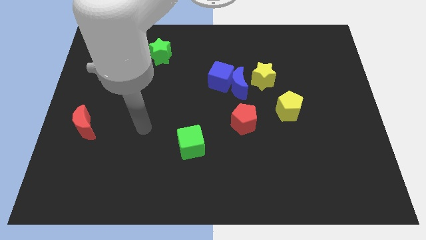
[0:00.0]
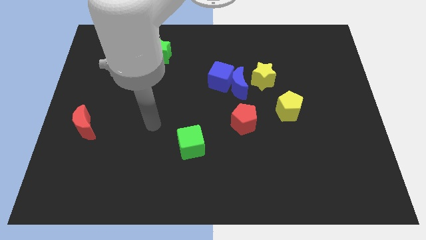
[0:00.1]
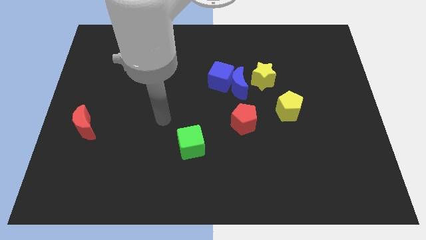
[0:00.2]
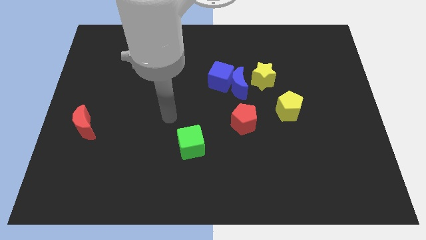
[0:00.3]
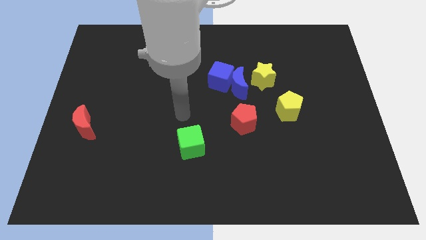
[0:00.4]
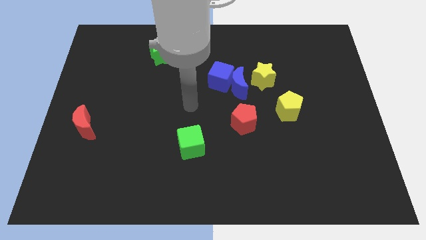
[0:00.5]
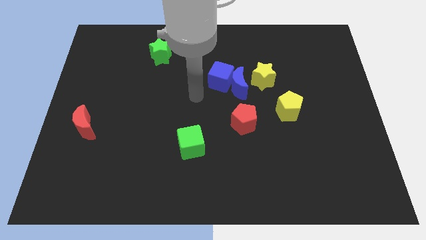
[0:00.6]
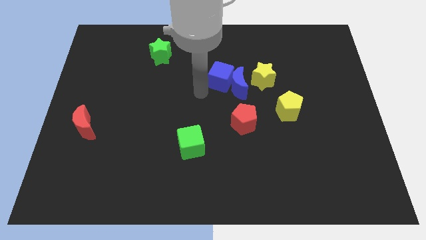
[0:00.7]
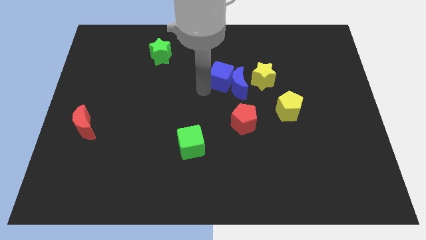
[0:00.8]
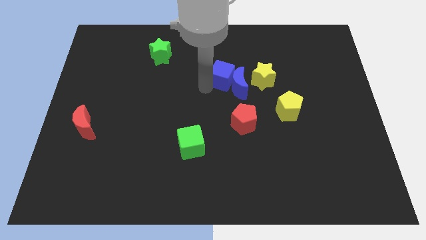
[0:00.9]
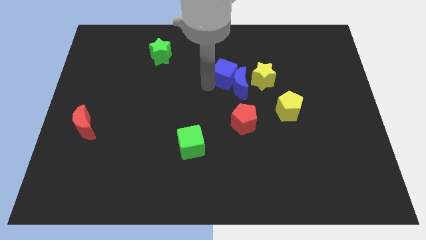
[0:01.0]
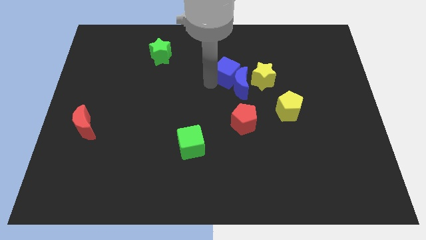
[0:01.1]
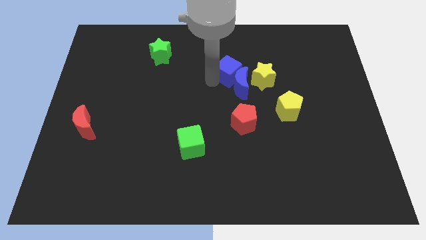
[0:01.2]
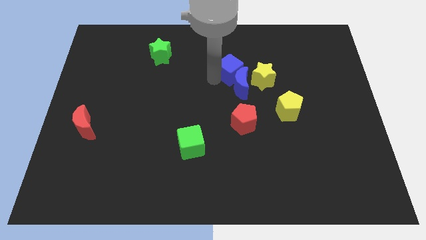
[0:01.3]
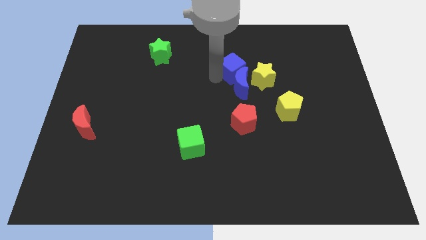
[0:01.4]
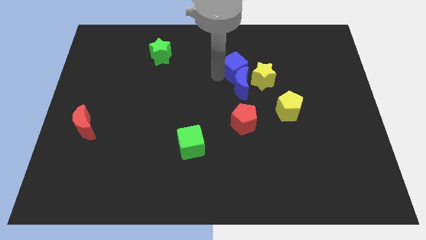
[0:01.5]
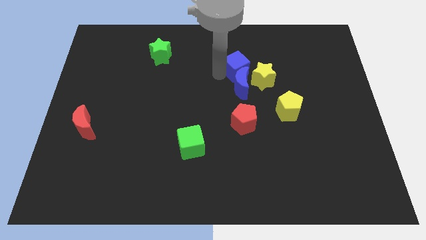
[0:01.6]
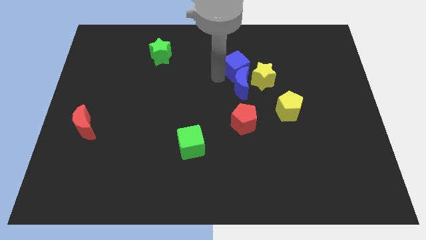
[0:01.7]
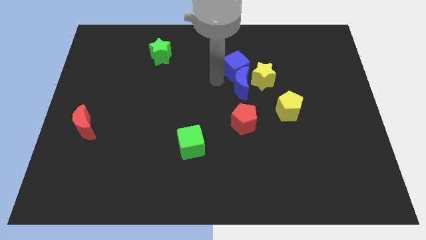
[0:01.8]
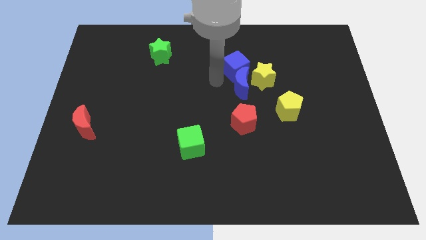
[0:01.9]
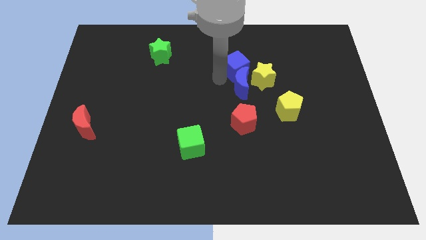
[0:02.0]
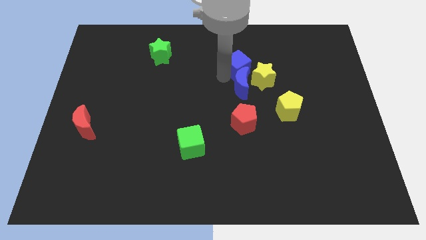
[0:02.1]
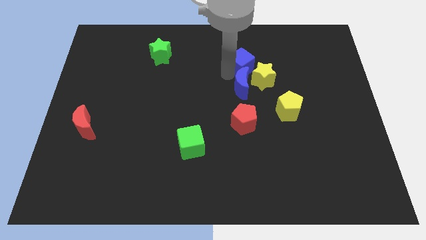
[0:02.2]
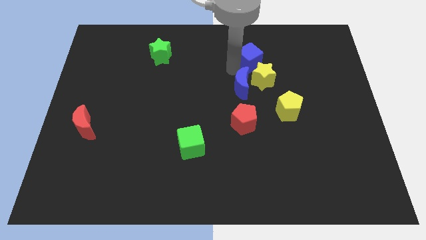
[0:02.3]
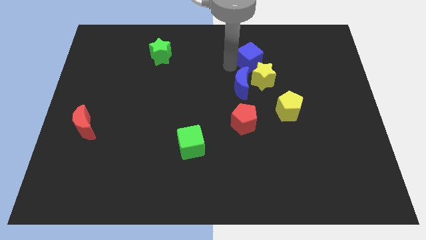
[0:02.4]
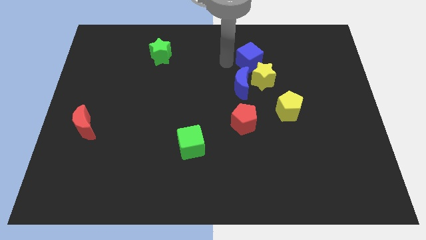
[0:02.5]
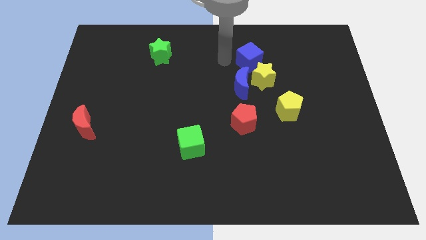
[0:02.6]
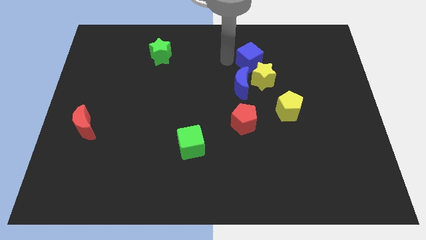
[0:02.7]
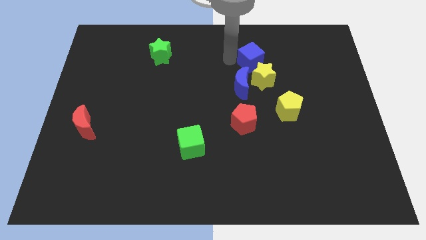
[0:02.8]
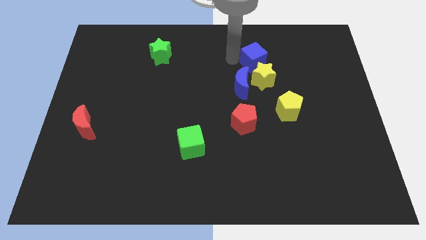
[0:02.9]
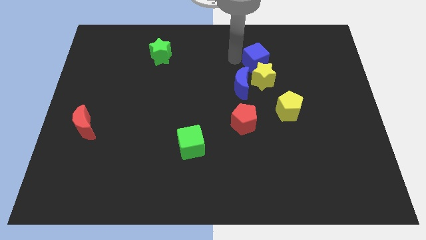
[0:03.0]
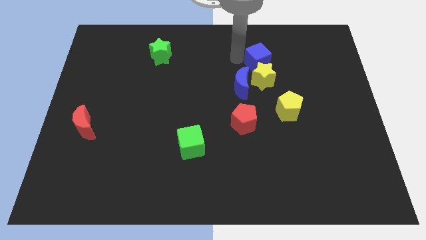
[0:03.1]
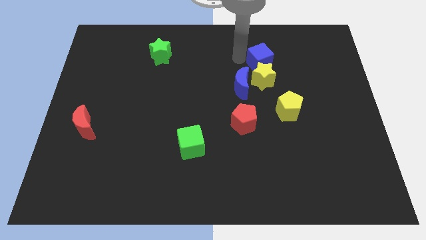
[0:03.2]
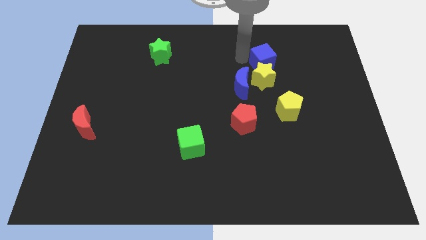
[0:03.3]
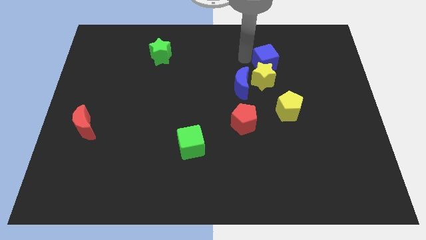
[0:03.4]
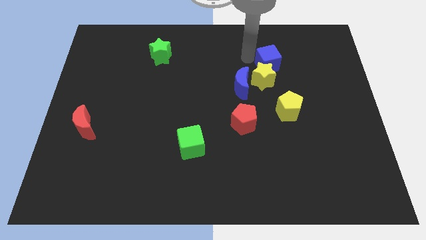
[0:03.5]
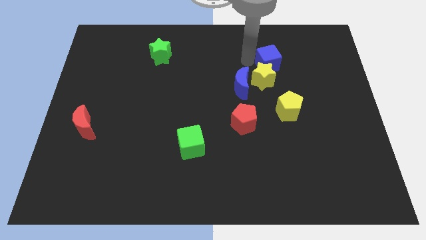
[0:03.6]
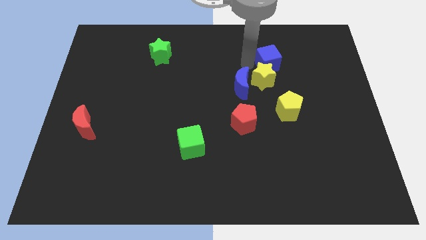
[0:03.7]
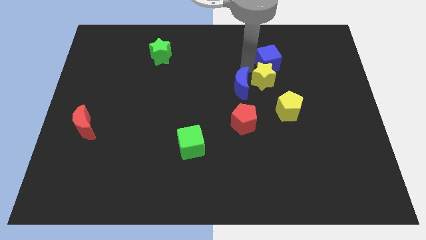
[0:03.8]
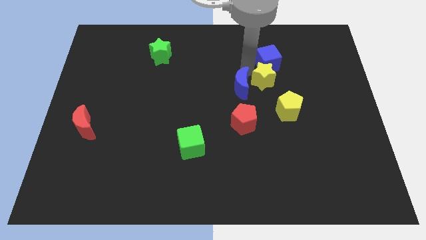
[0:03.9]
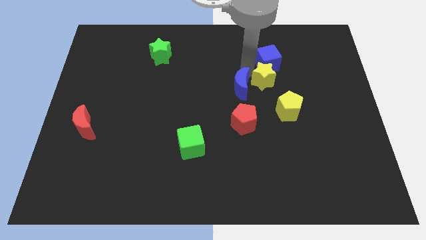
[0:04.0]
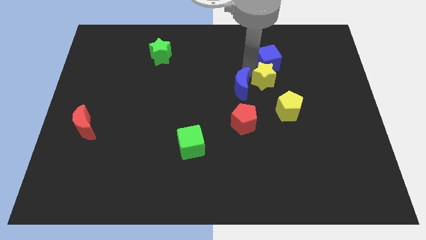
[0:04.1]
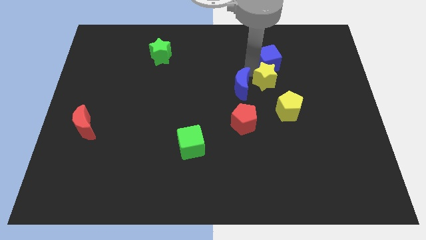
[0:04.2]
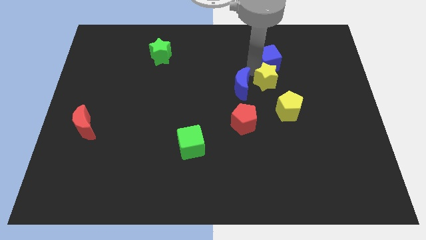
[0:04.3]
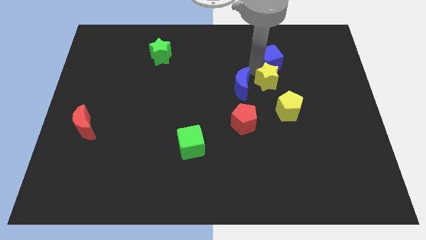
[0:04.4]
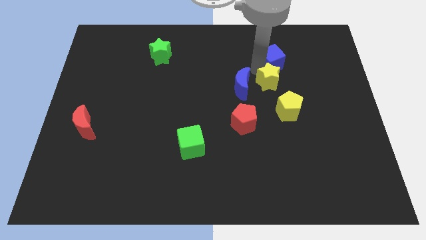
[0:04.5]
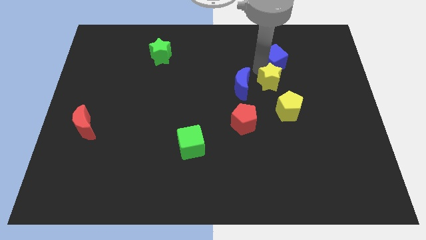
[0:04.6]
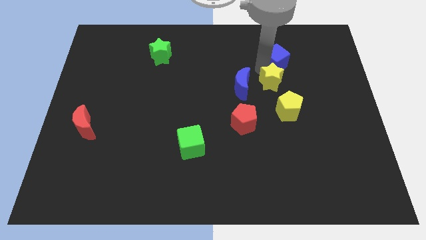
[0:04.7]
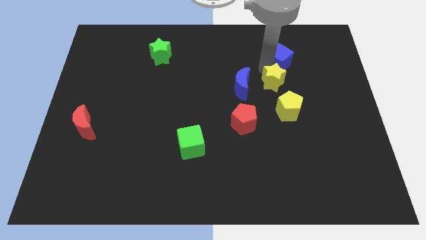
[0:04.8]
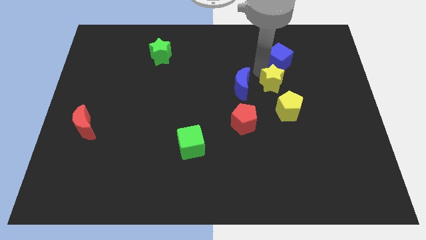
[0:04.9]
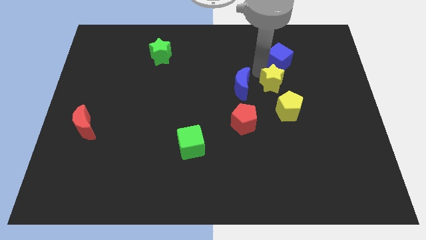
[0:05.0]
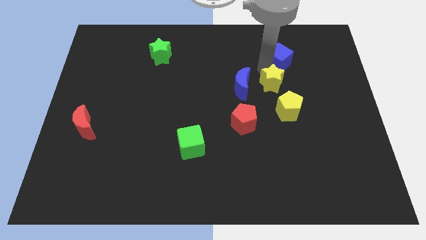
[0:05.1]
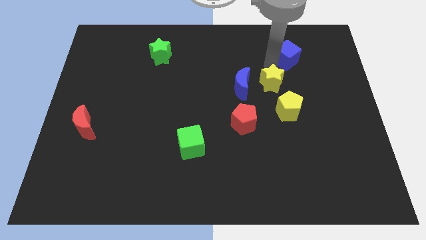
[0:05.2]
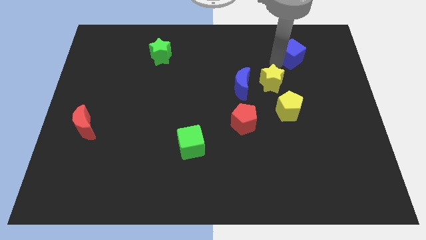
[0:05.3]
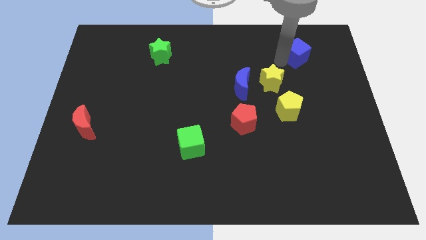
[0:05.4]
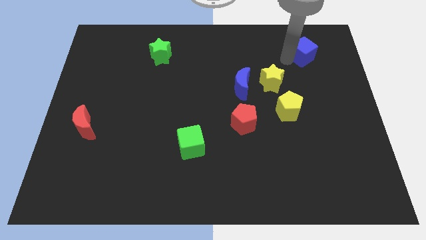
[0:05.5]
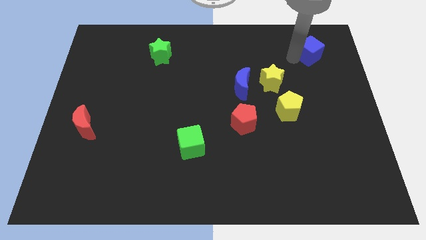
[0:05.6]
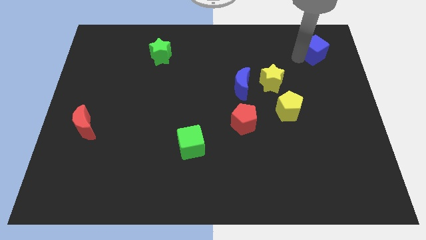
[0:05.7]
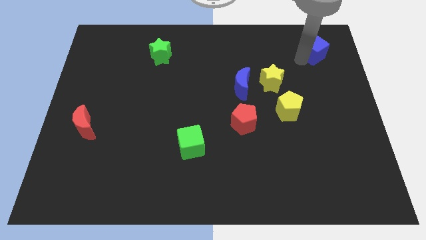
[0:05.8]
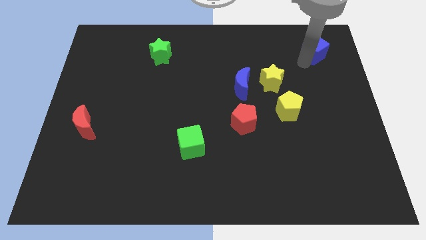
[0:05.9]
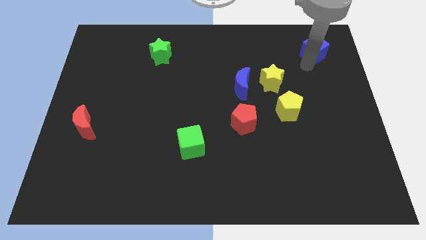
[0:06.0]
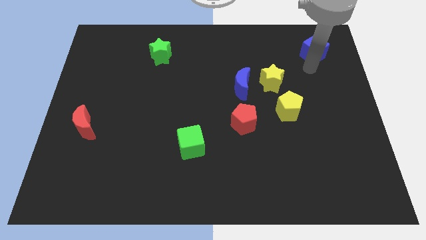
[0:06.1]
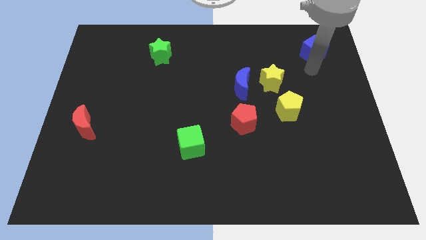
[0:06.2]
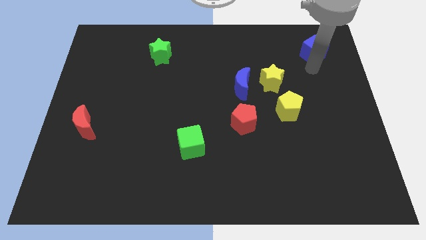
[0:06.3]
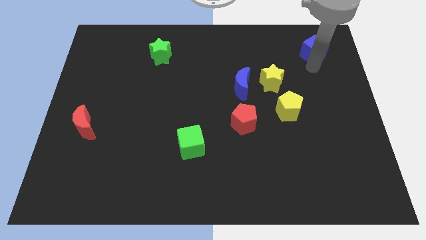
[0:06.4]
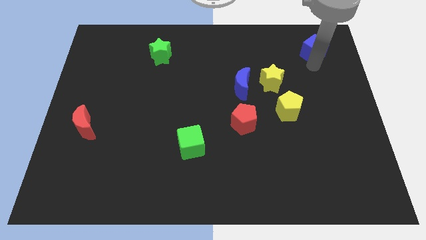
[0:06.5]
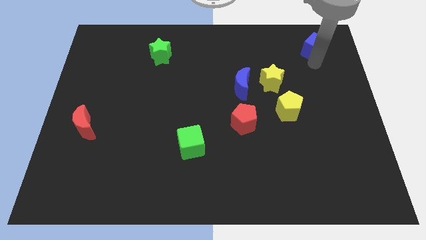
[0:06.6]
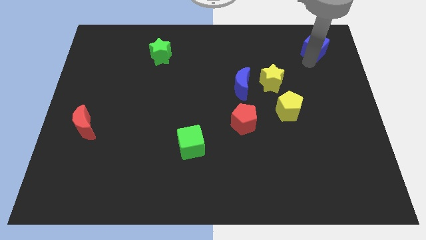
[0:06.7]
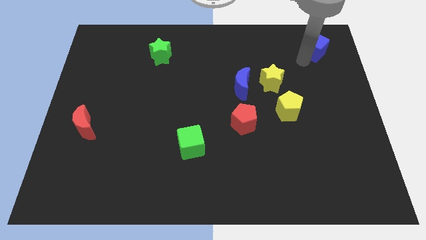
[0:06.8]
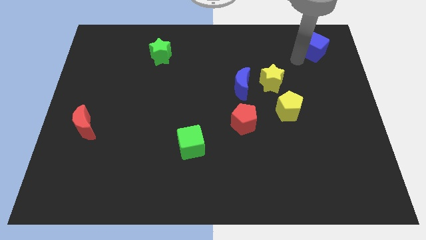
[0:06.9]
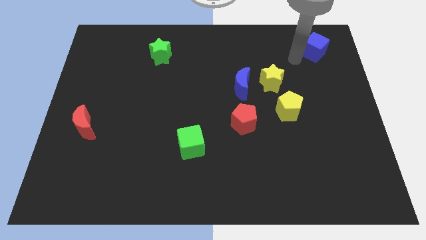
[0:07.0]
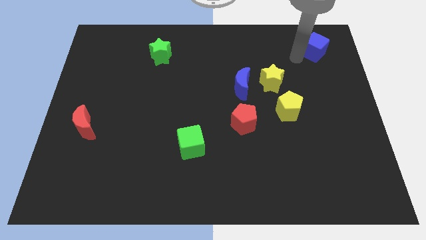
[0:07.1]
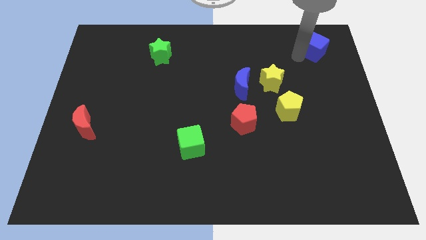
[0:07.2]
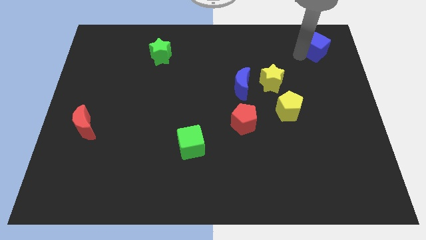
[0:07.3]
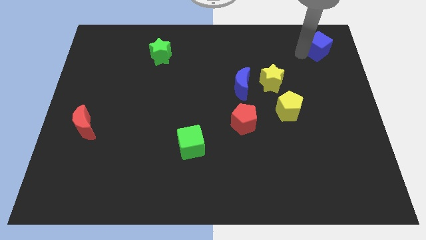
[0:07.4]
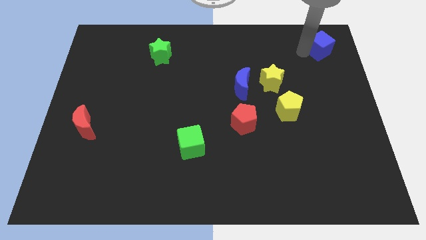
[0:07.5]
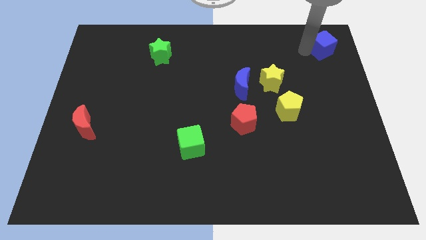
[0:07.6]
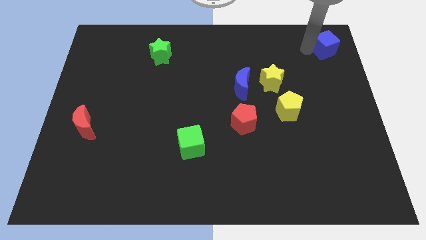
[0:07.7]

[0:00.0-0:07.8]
slide the blue cube to the top right of the board
